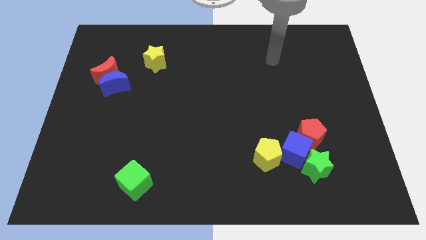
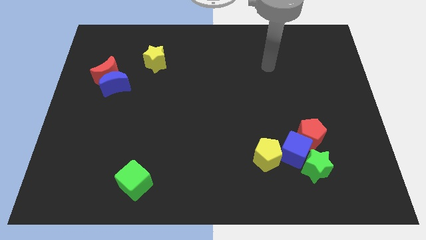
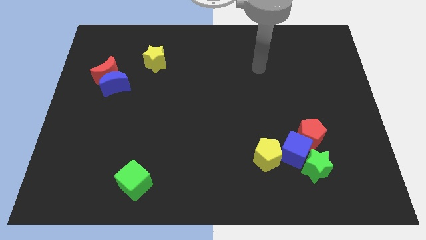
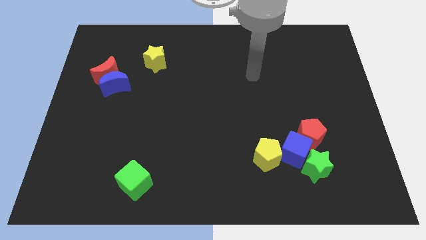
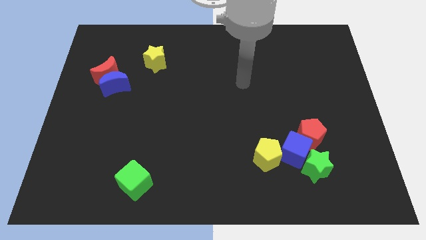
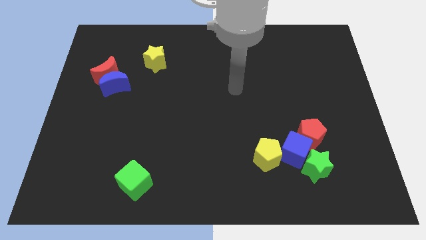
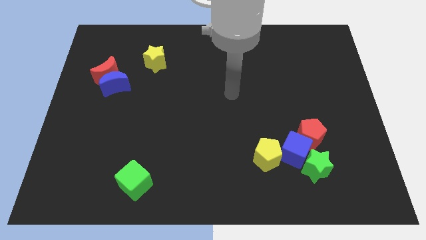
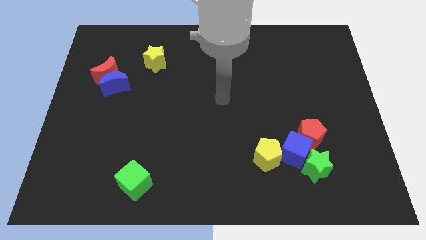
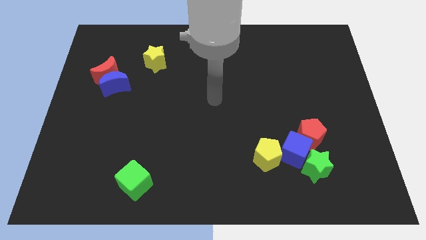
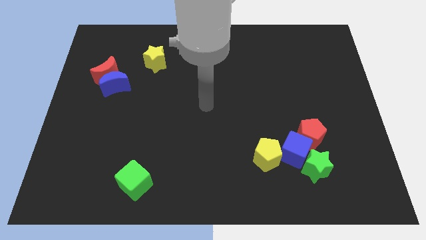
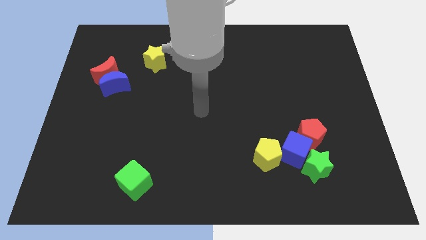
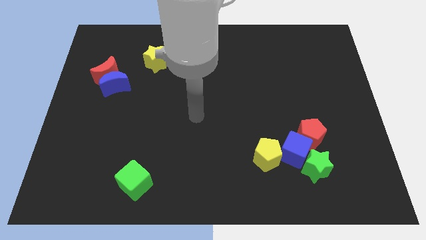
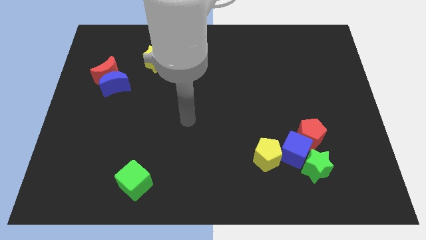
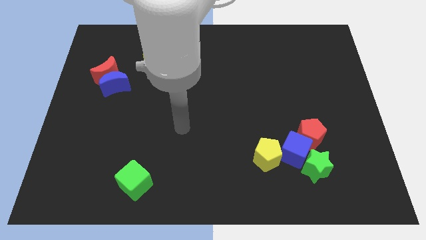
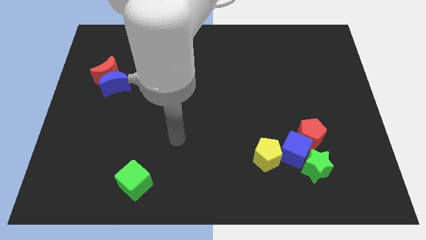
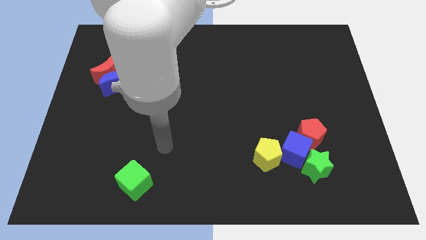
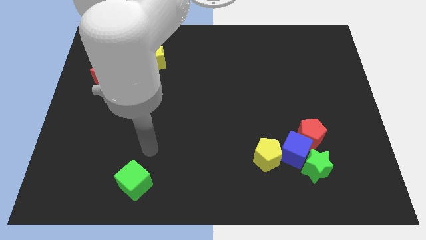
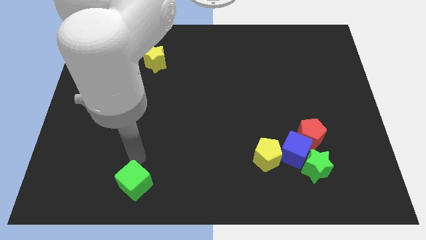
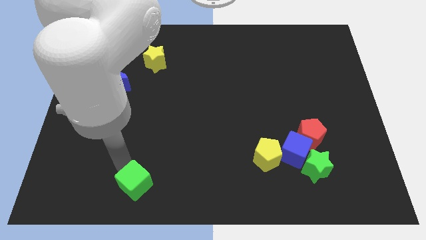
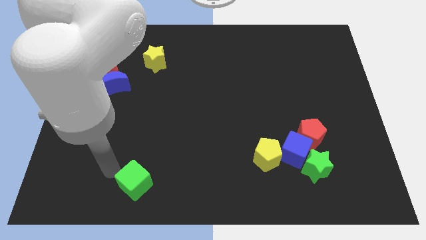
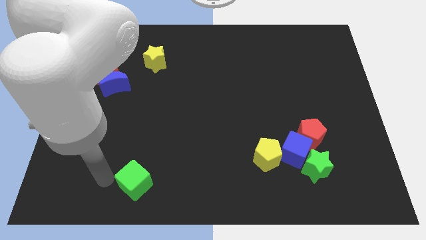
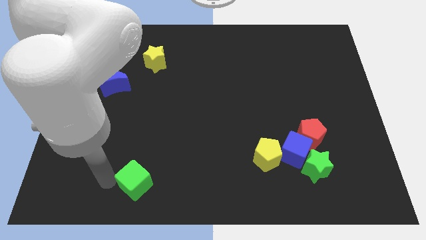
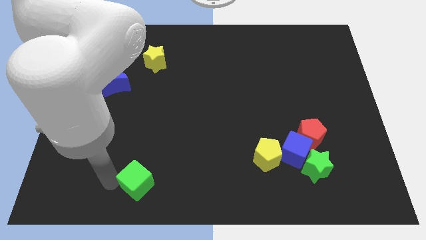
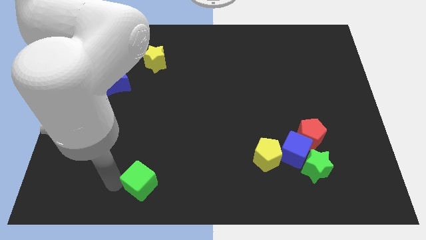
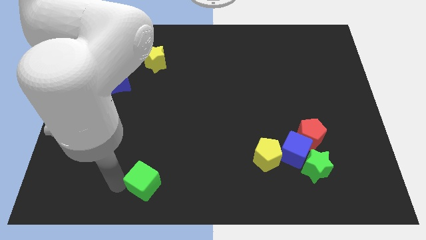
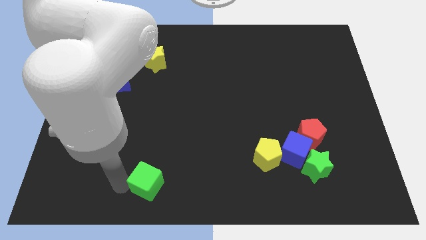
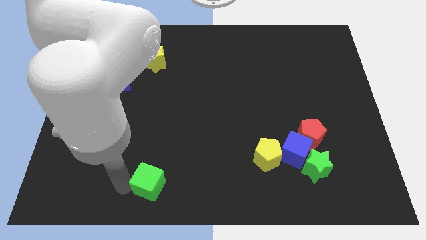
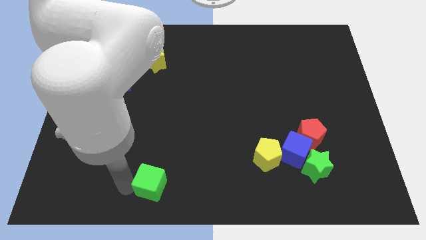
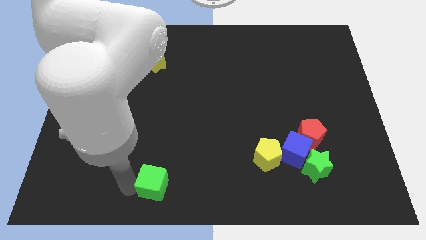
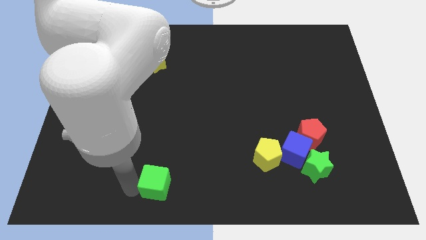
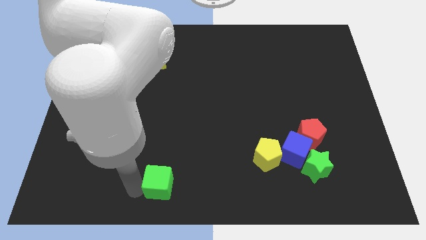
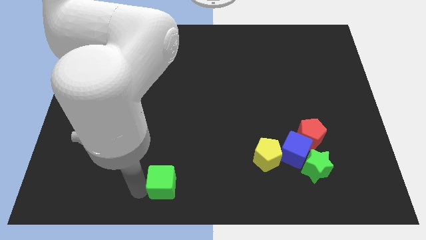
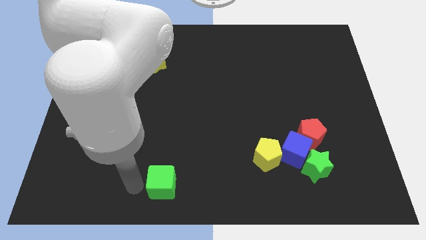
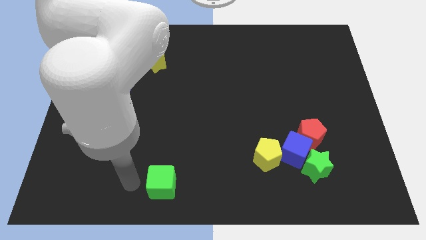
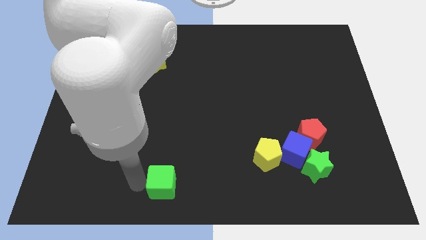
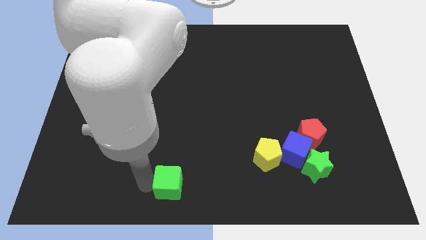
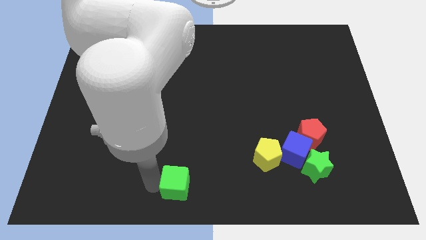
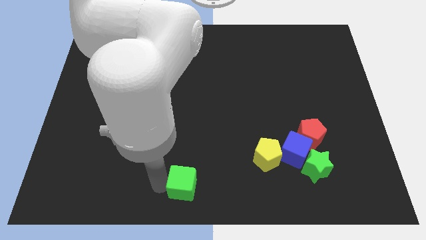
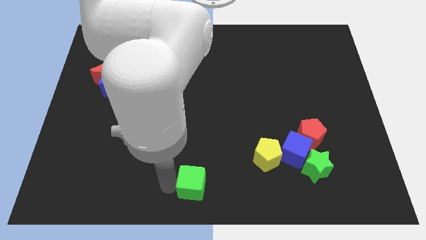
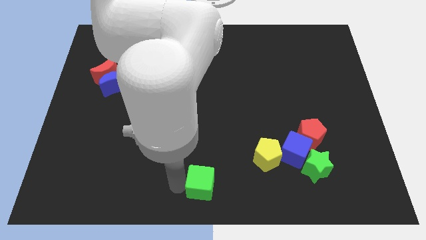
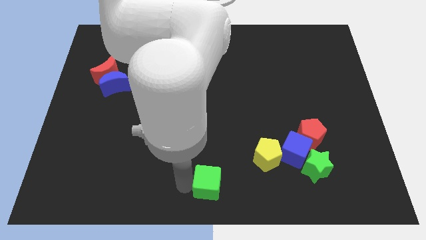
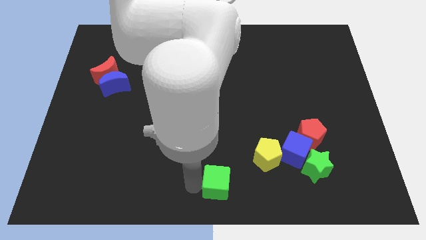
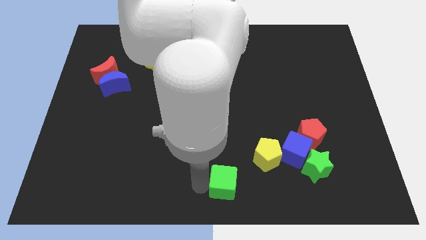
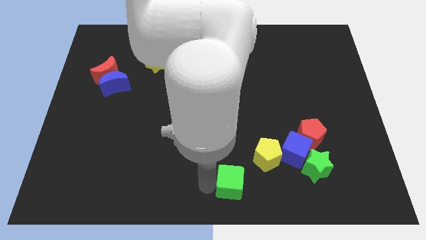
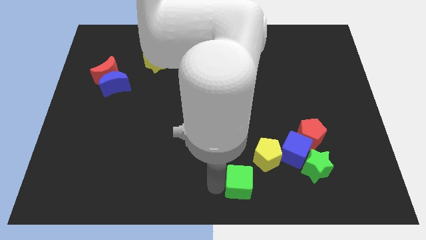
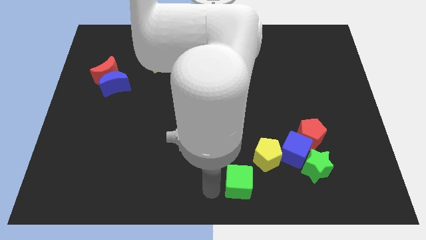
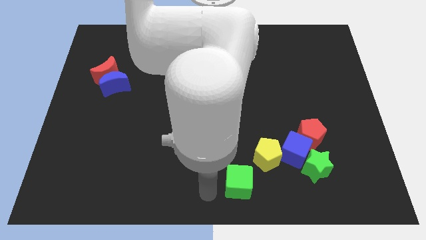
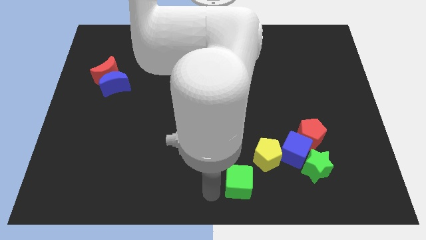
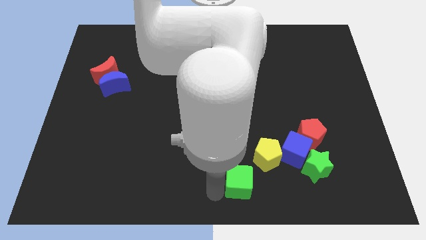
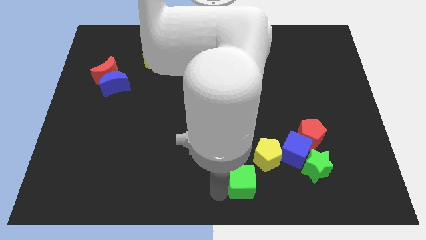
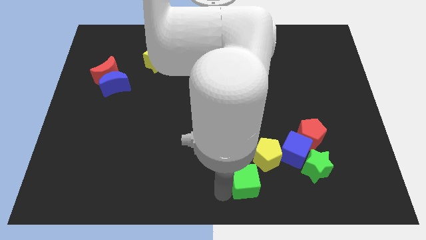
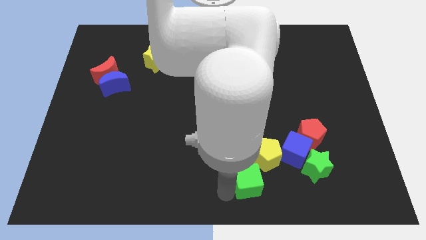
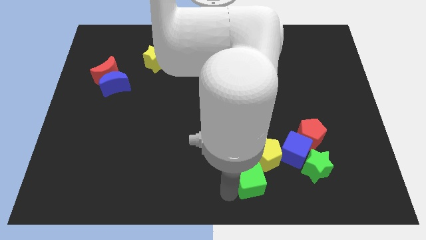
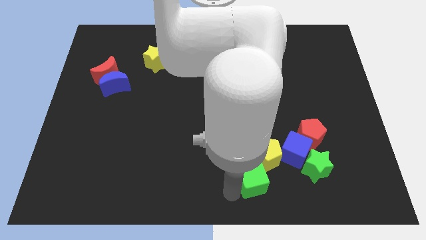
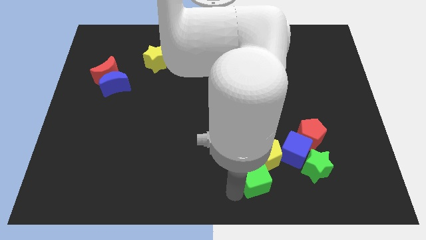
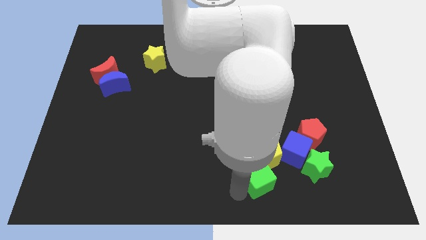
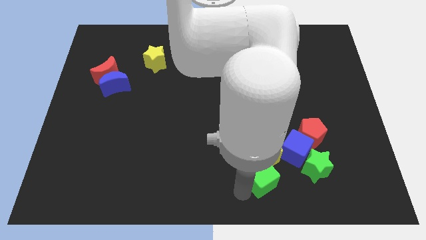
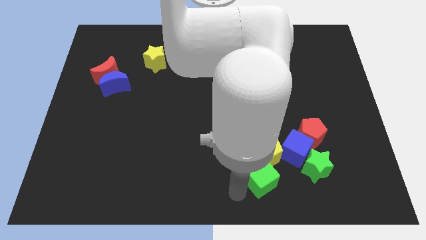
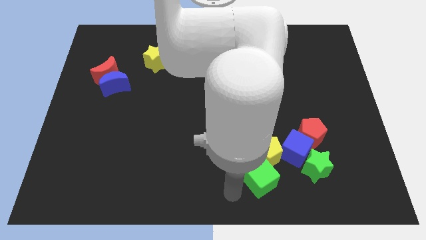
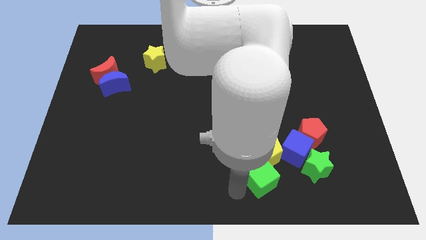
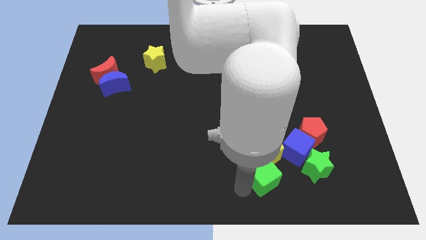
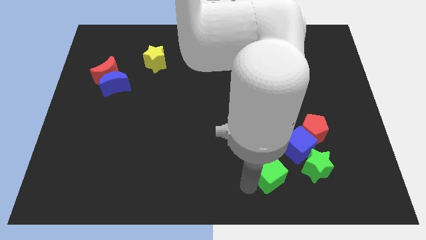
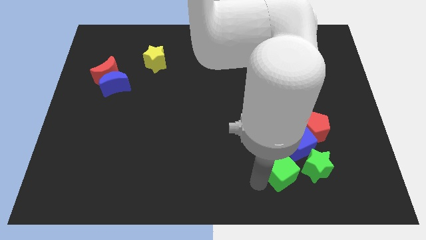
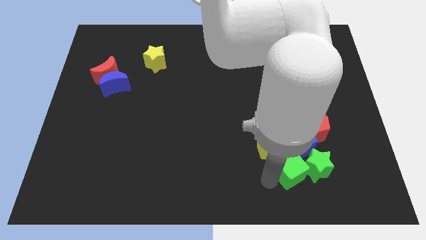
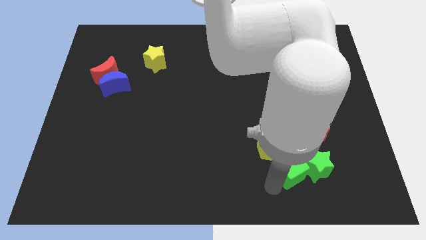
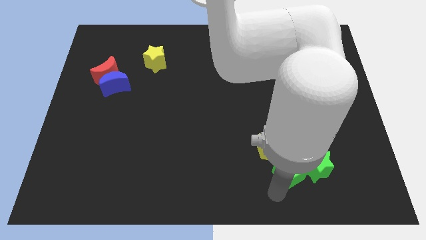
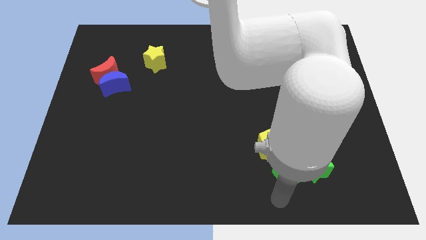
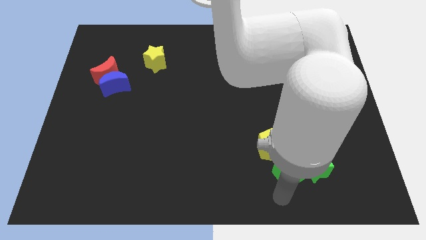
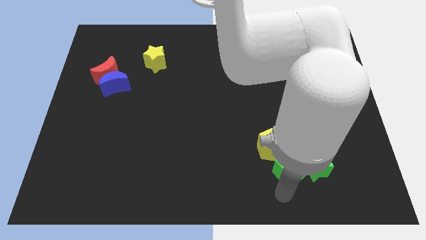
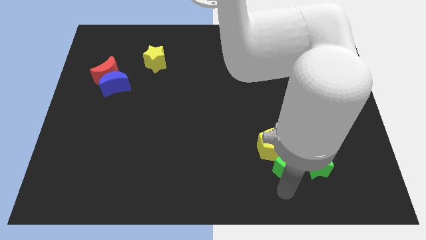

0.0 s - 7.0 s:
move the green cube next to the blue cube
